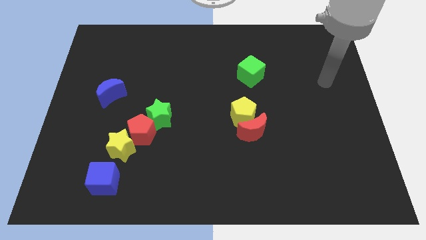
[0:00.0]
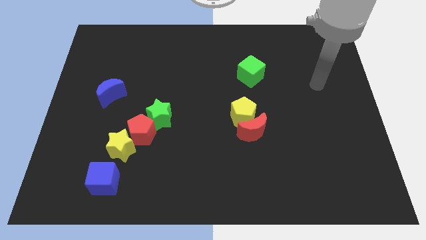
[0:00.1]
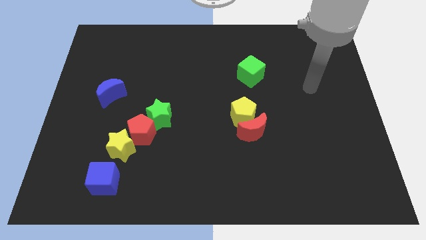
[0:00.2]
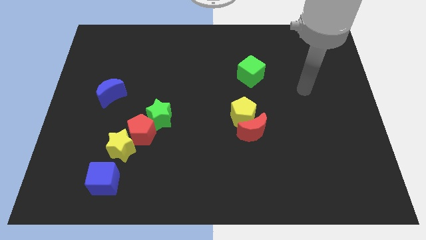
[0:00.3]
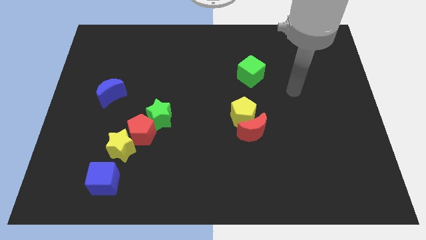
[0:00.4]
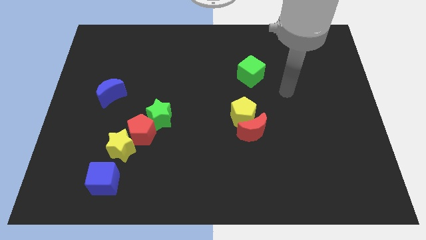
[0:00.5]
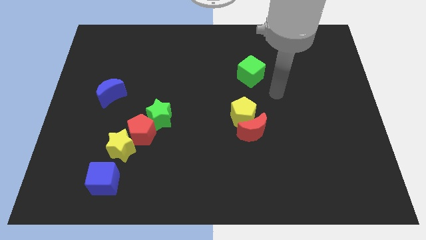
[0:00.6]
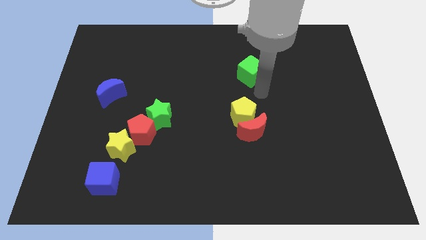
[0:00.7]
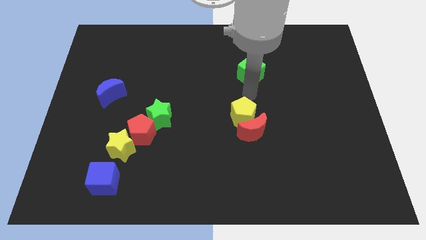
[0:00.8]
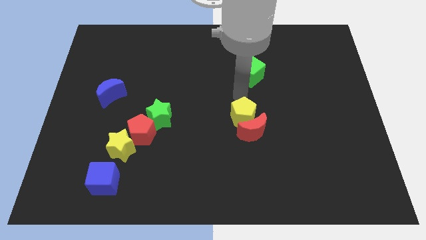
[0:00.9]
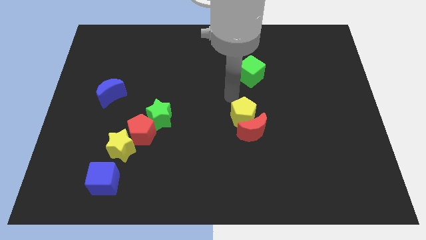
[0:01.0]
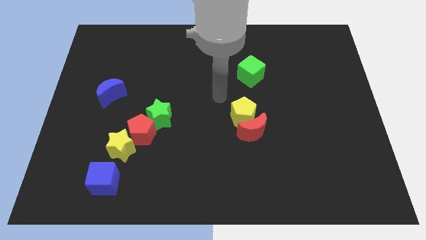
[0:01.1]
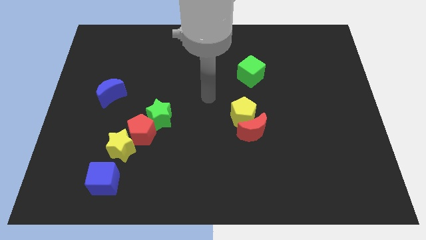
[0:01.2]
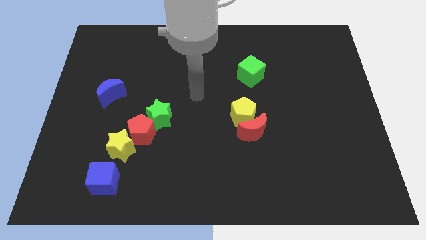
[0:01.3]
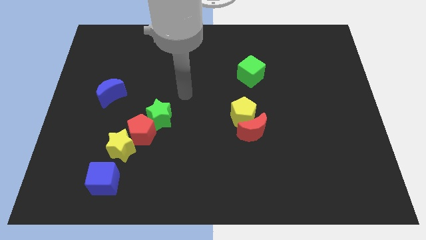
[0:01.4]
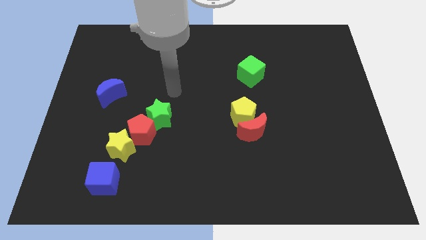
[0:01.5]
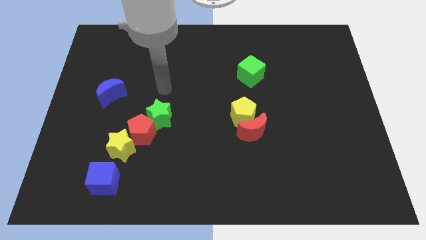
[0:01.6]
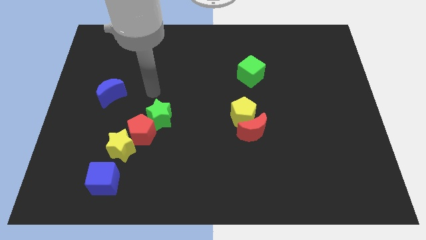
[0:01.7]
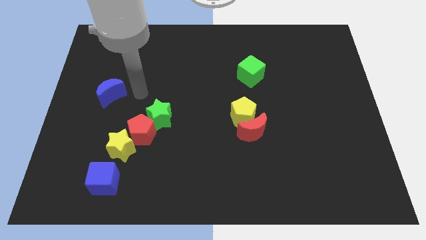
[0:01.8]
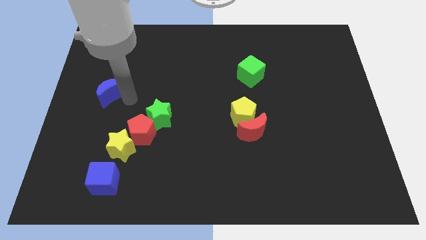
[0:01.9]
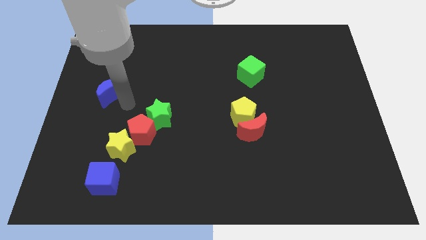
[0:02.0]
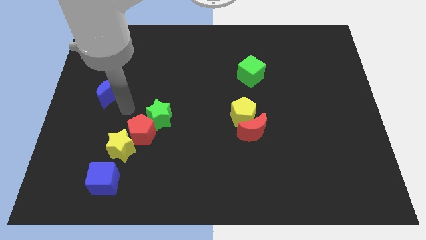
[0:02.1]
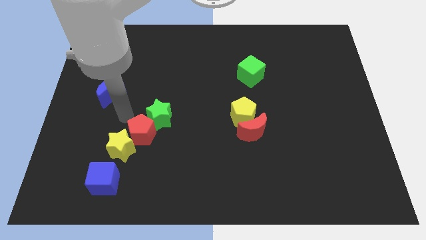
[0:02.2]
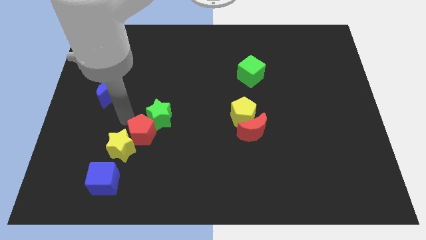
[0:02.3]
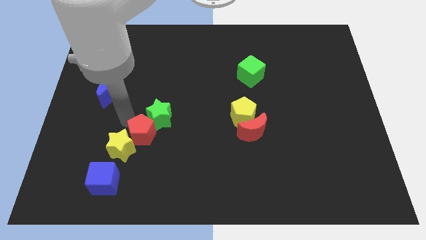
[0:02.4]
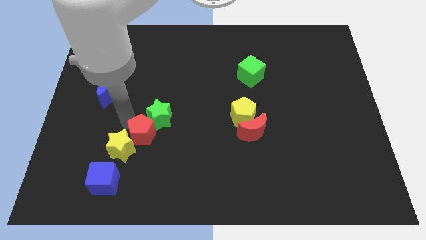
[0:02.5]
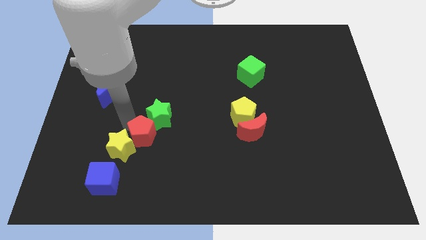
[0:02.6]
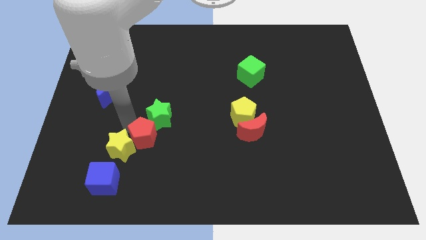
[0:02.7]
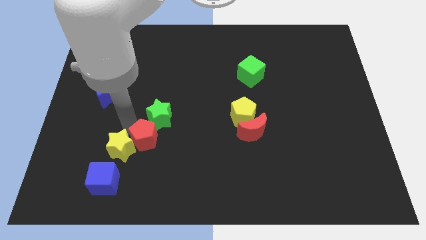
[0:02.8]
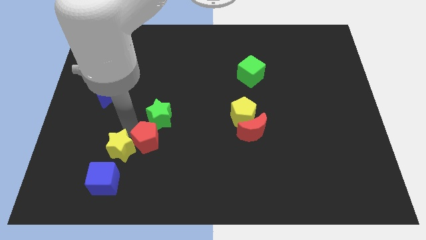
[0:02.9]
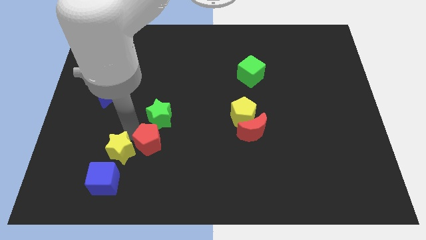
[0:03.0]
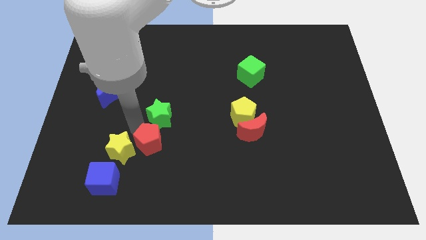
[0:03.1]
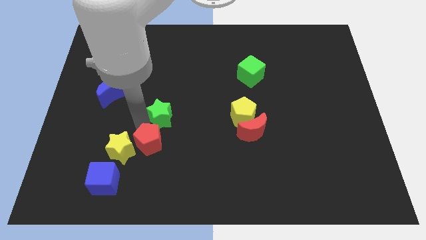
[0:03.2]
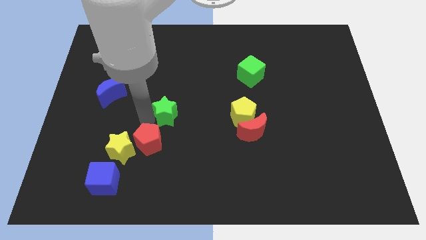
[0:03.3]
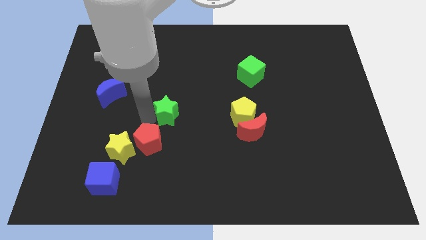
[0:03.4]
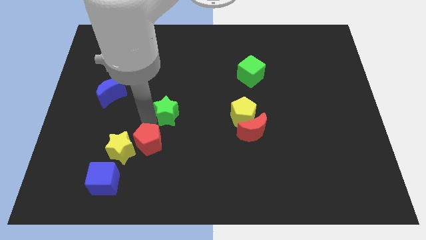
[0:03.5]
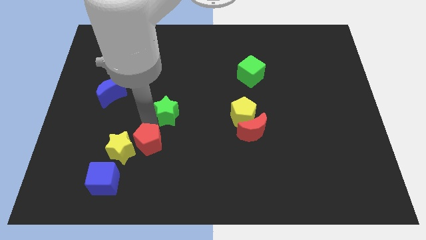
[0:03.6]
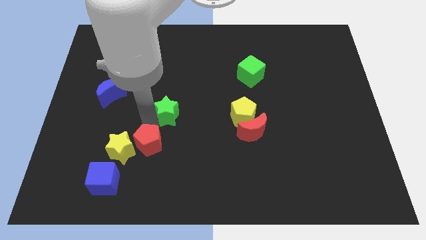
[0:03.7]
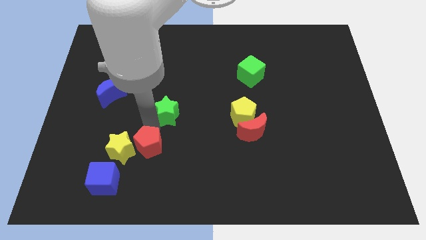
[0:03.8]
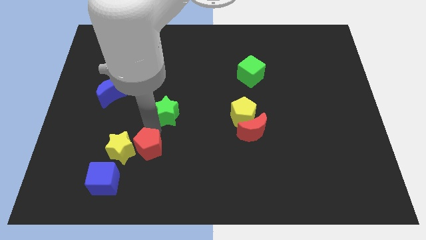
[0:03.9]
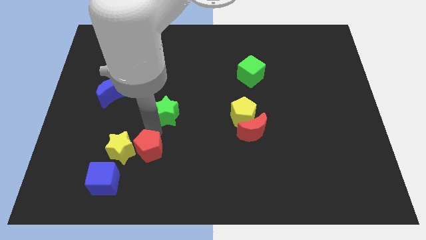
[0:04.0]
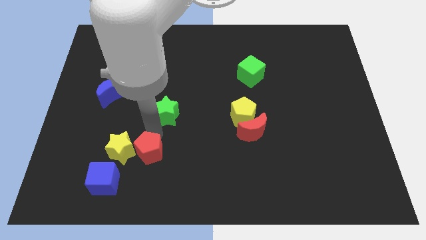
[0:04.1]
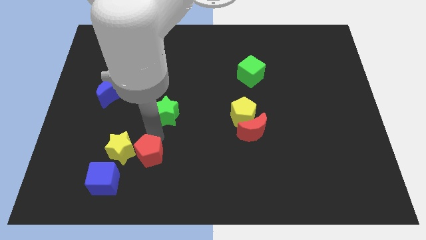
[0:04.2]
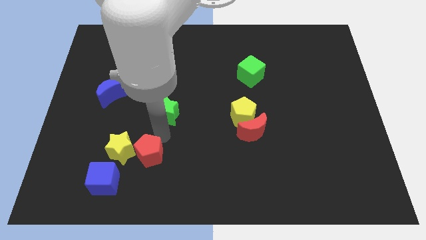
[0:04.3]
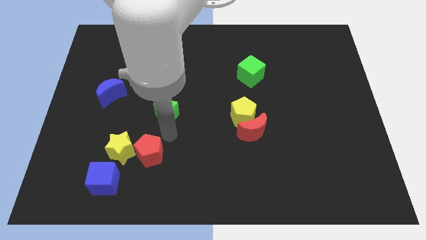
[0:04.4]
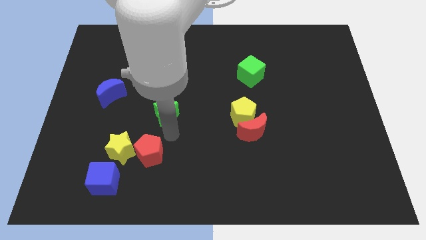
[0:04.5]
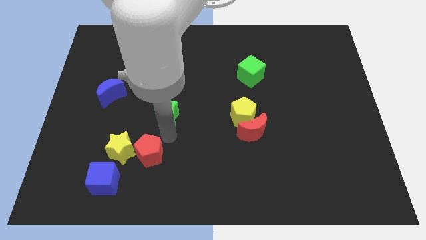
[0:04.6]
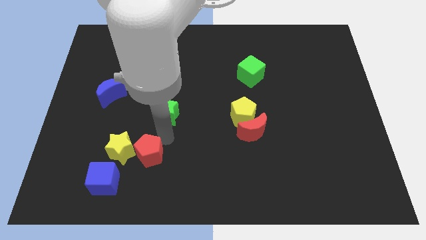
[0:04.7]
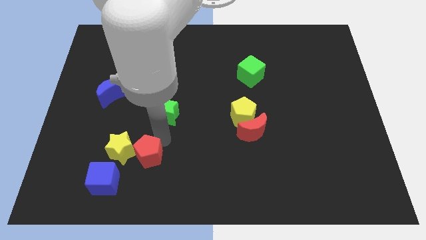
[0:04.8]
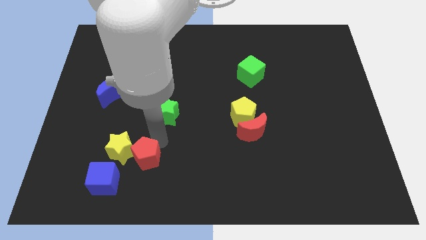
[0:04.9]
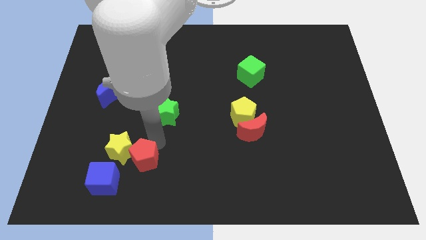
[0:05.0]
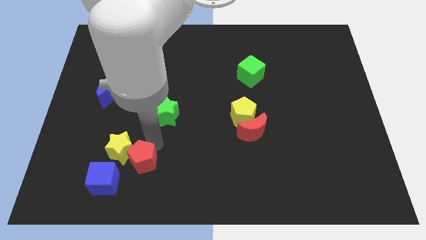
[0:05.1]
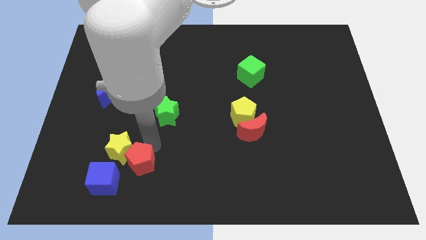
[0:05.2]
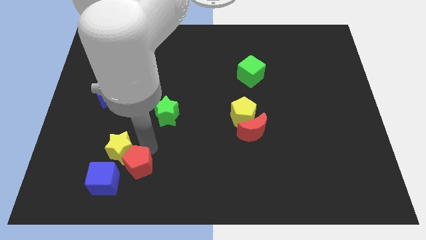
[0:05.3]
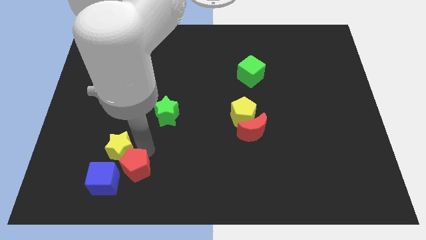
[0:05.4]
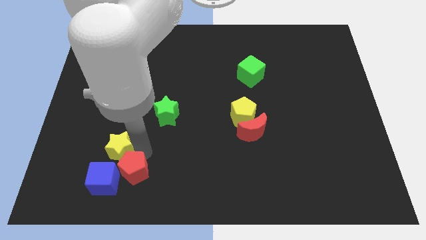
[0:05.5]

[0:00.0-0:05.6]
move the red pentagon towards the blue cube

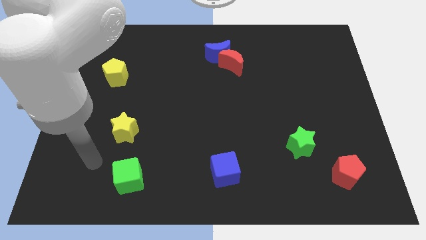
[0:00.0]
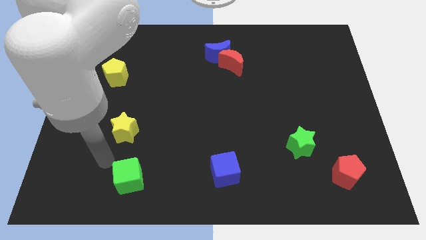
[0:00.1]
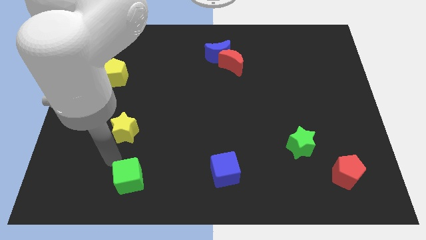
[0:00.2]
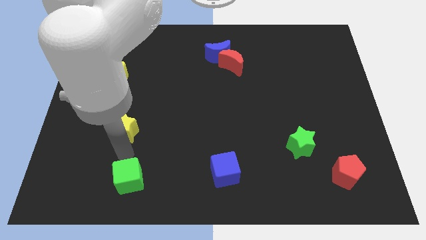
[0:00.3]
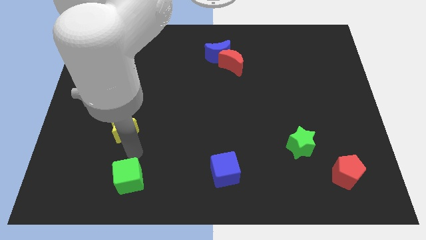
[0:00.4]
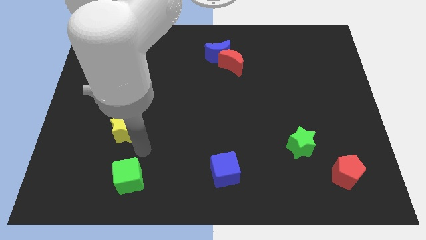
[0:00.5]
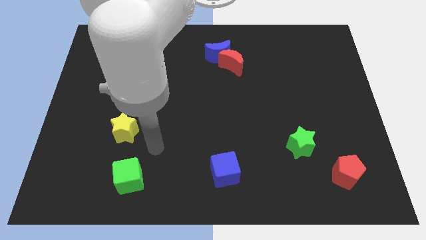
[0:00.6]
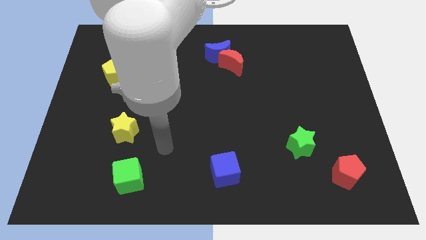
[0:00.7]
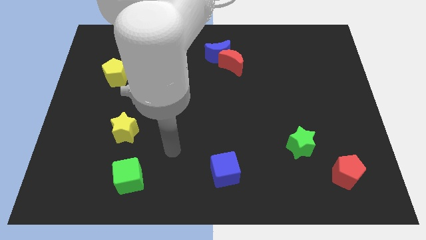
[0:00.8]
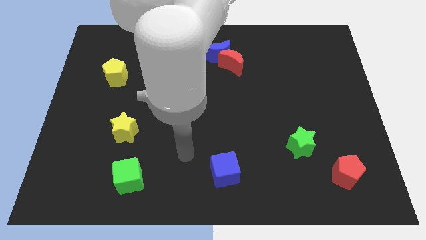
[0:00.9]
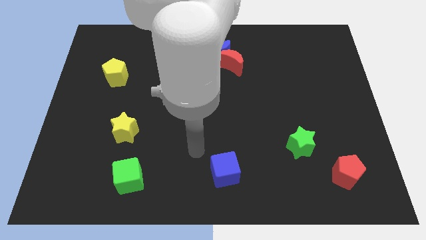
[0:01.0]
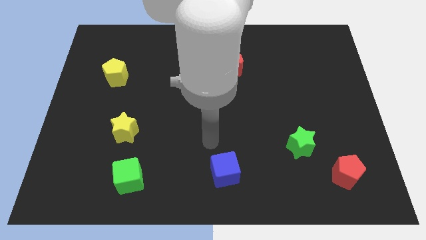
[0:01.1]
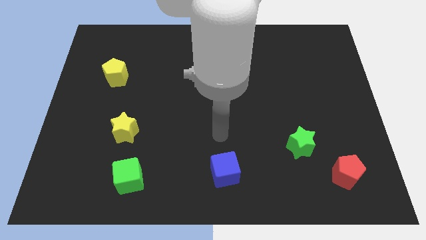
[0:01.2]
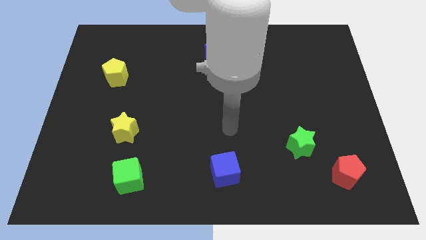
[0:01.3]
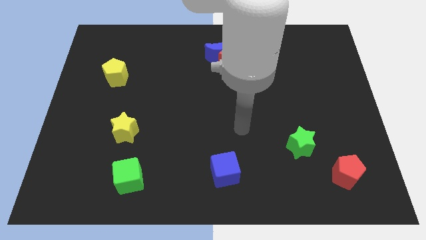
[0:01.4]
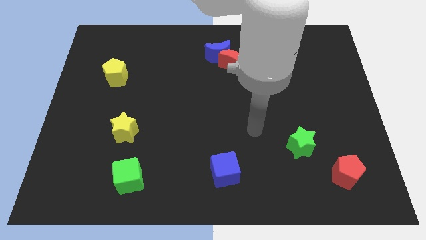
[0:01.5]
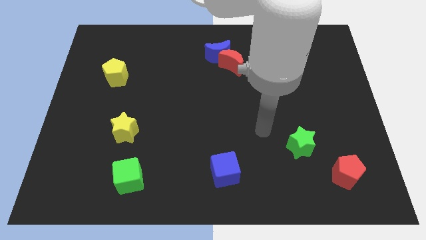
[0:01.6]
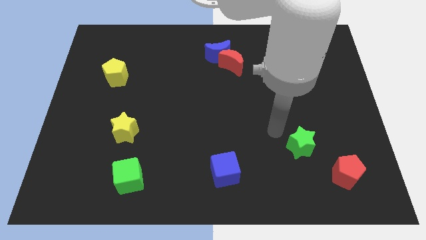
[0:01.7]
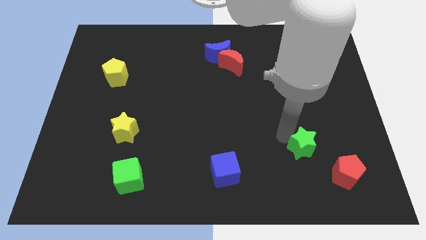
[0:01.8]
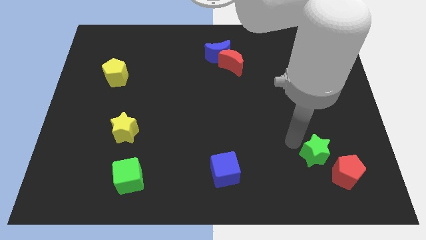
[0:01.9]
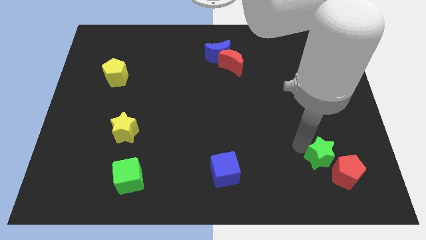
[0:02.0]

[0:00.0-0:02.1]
move the green star next to the red pentagon

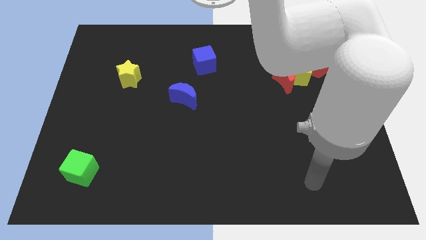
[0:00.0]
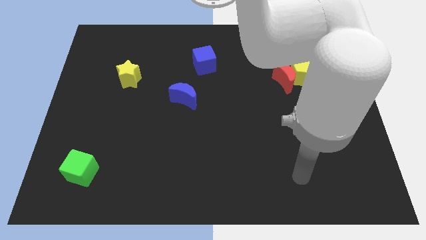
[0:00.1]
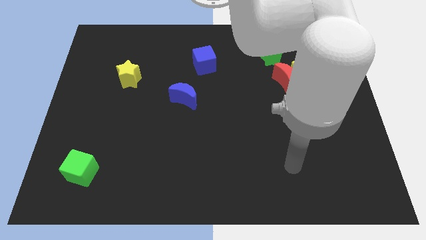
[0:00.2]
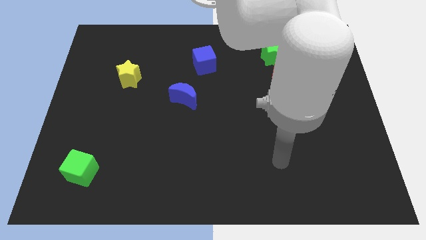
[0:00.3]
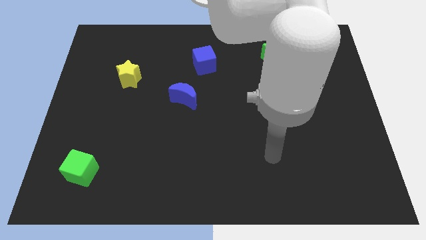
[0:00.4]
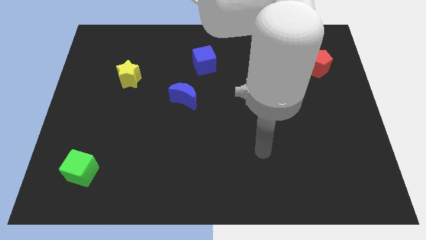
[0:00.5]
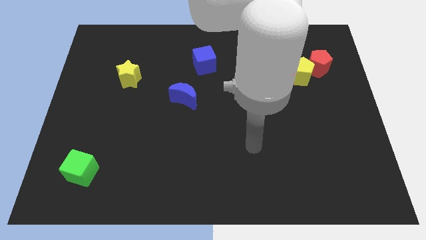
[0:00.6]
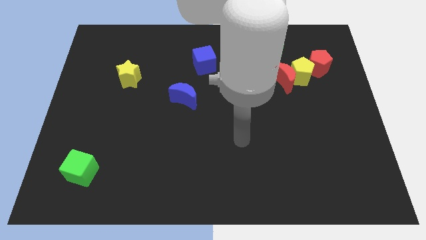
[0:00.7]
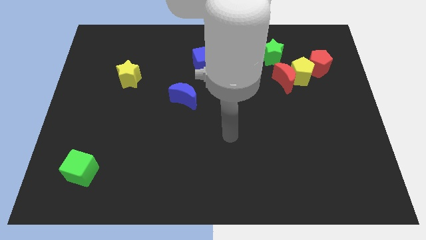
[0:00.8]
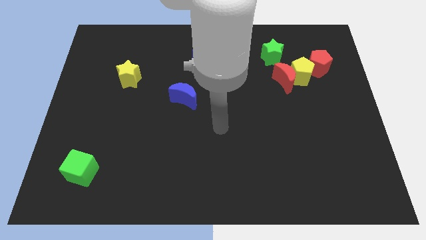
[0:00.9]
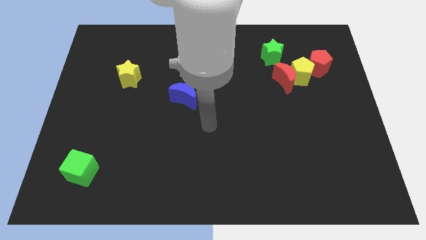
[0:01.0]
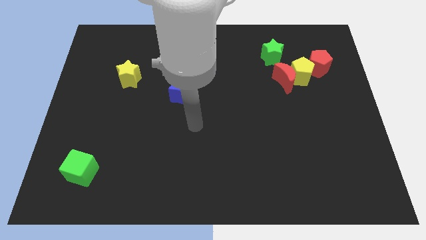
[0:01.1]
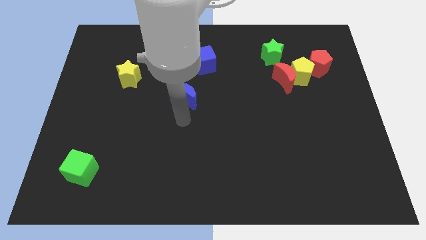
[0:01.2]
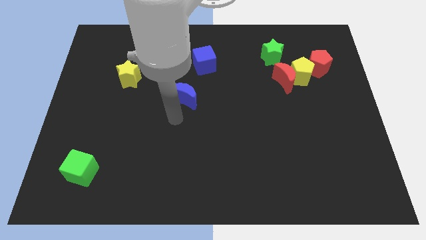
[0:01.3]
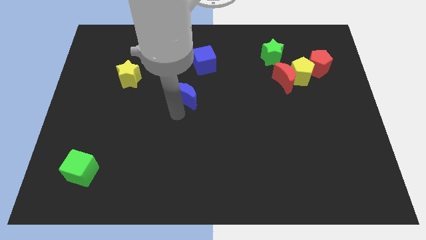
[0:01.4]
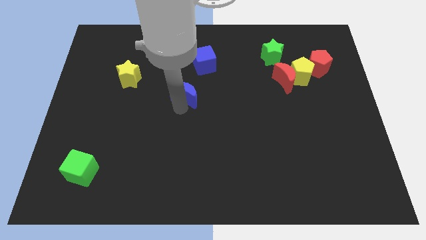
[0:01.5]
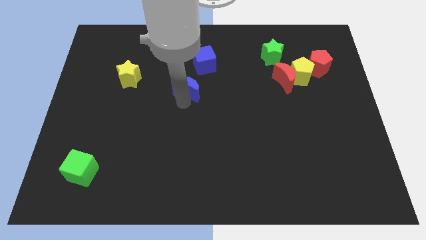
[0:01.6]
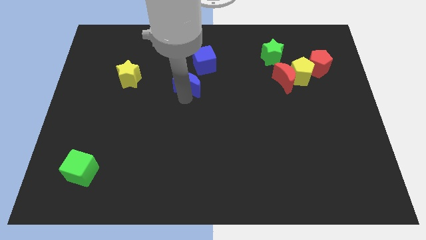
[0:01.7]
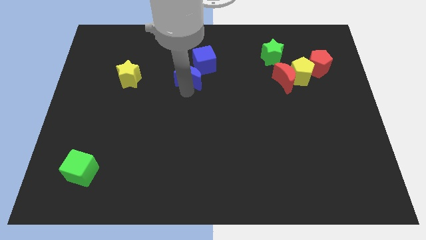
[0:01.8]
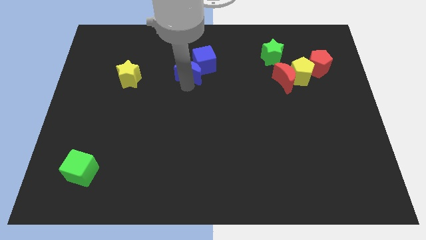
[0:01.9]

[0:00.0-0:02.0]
slide the blue moon towards the blue cube
